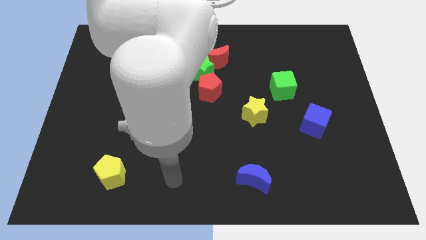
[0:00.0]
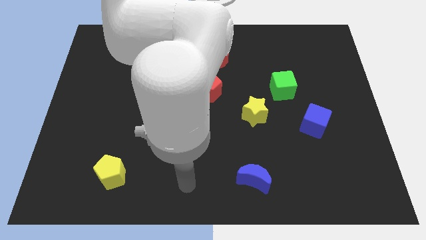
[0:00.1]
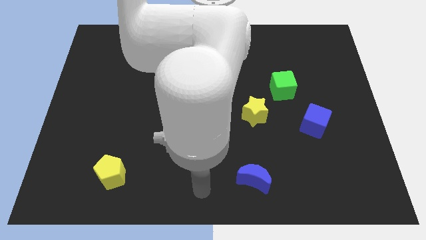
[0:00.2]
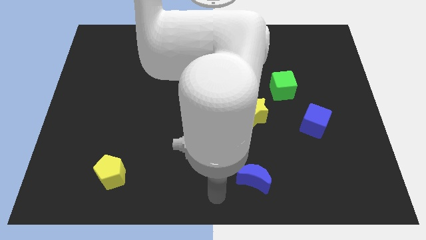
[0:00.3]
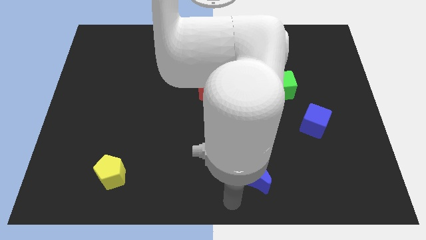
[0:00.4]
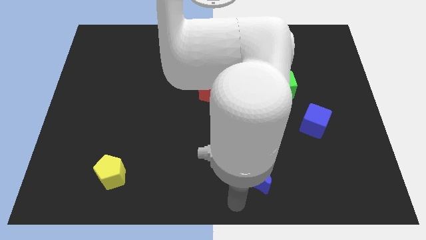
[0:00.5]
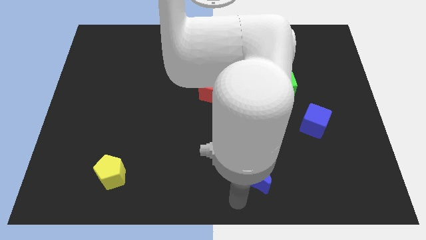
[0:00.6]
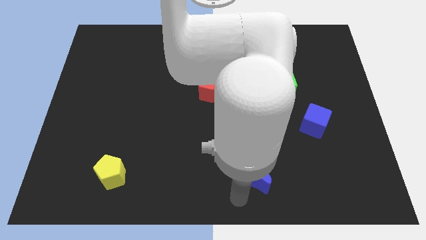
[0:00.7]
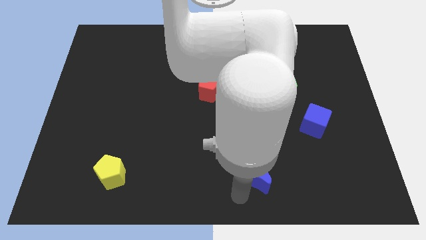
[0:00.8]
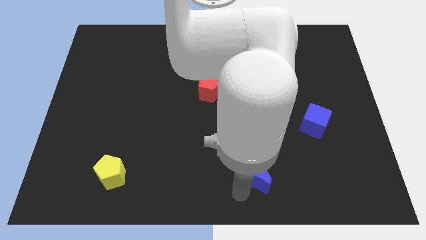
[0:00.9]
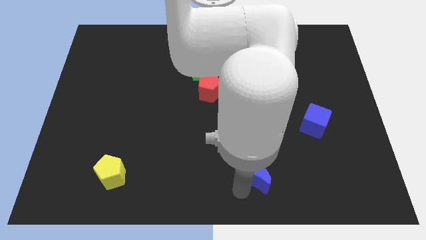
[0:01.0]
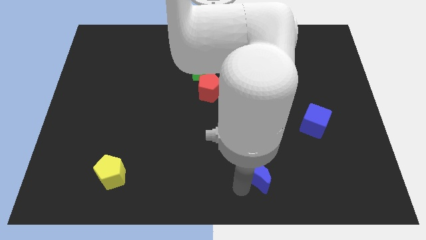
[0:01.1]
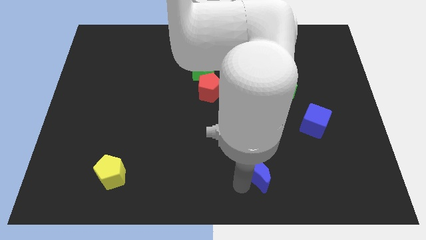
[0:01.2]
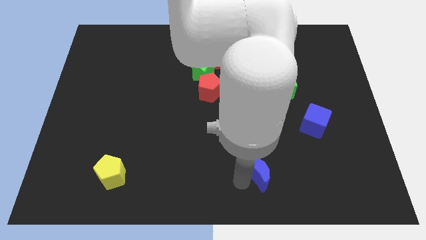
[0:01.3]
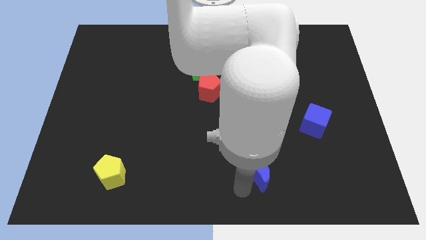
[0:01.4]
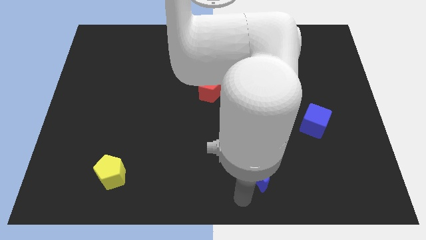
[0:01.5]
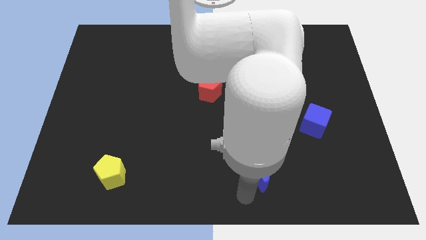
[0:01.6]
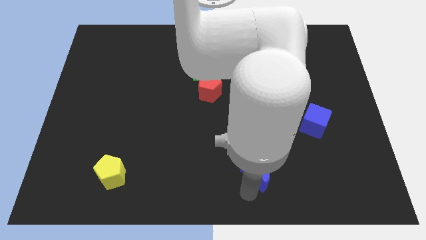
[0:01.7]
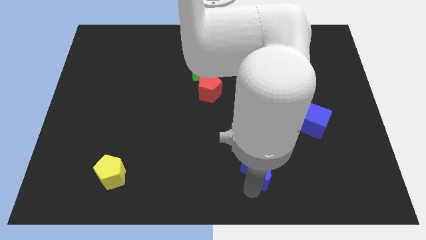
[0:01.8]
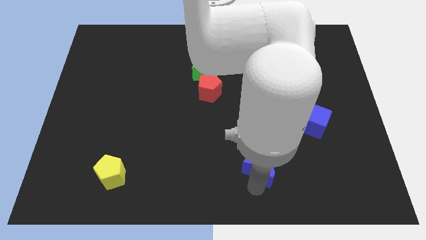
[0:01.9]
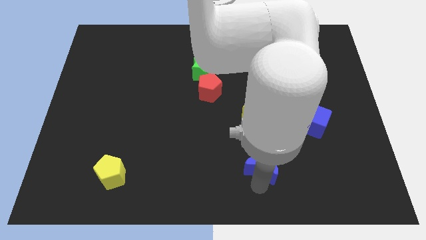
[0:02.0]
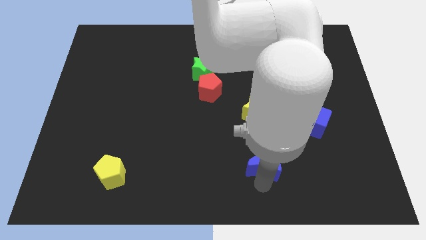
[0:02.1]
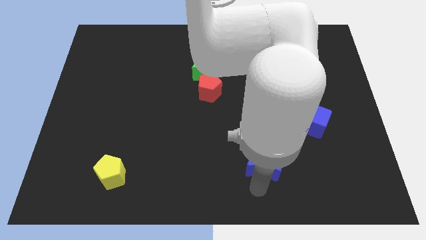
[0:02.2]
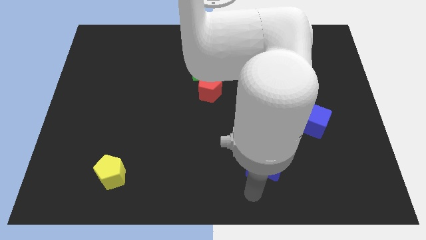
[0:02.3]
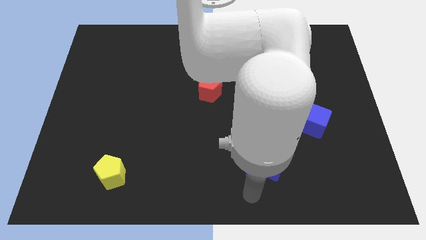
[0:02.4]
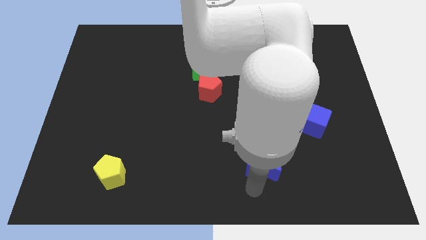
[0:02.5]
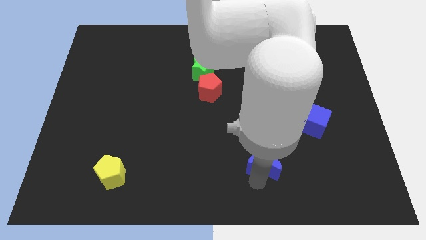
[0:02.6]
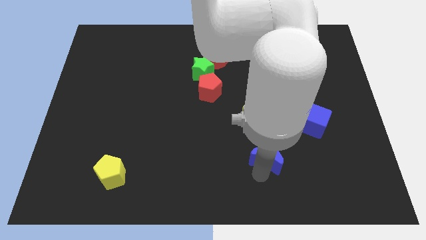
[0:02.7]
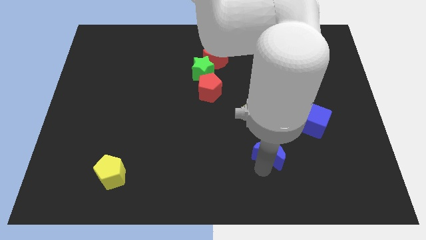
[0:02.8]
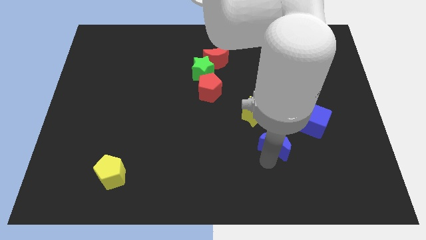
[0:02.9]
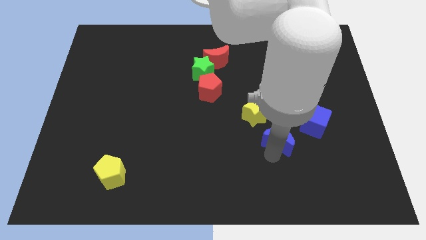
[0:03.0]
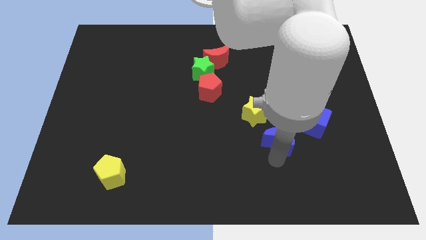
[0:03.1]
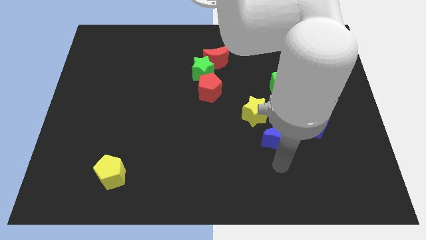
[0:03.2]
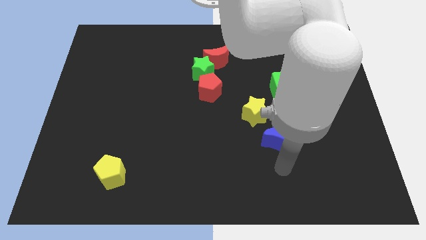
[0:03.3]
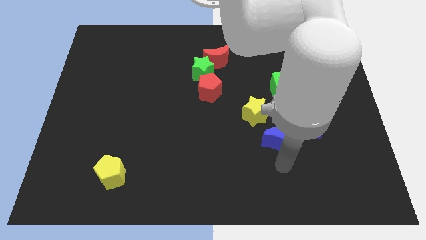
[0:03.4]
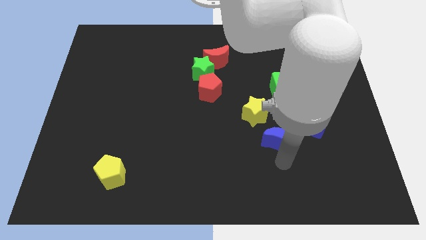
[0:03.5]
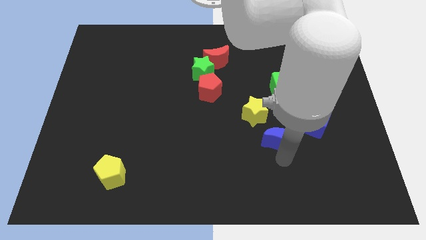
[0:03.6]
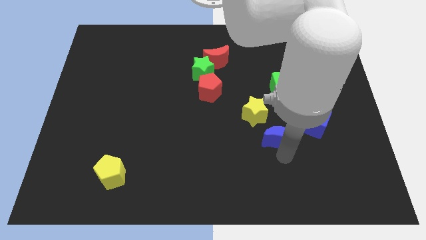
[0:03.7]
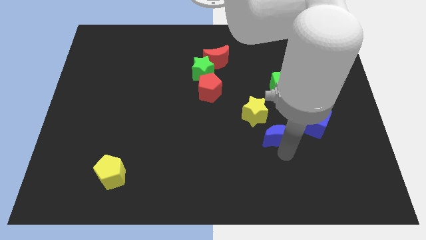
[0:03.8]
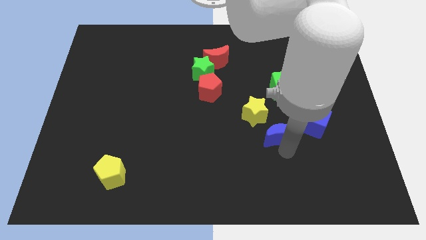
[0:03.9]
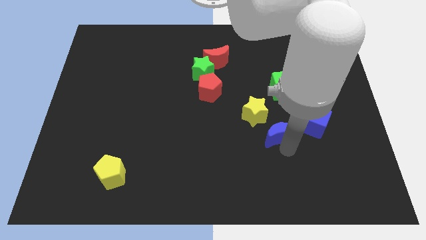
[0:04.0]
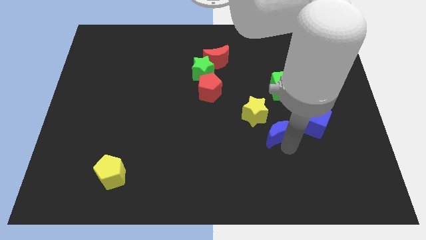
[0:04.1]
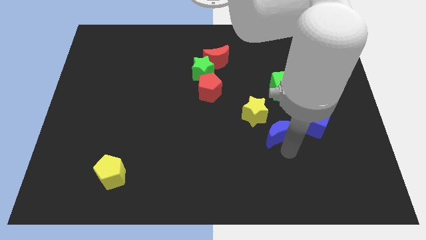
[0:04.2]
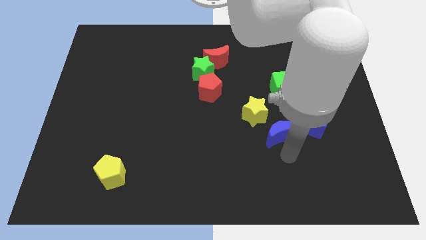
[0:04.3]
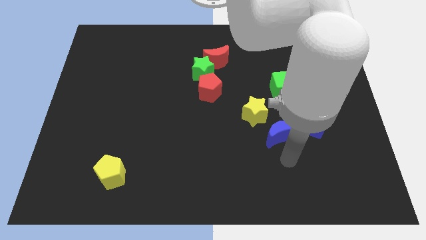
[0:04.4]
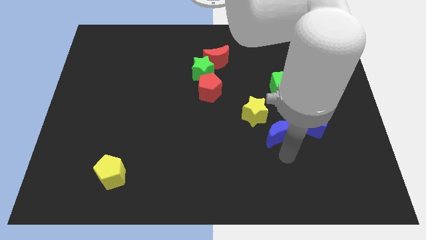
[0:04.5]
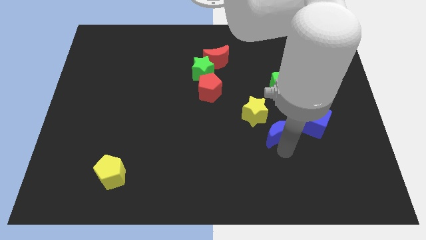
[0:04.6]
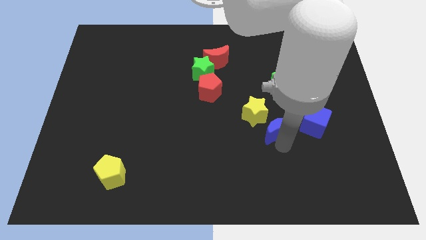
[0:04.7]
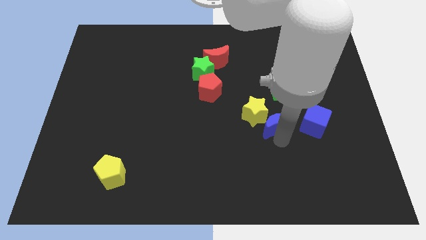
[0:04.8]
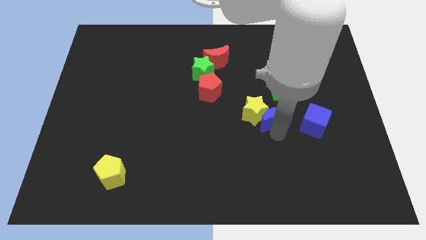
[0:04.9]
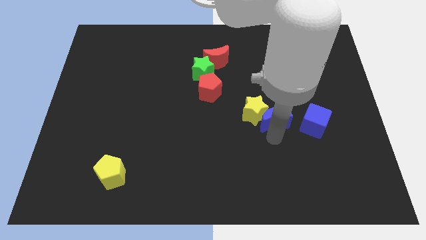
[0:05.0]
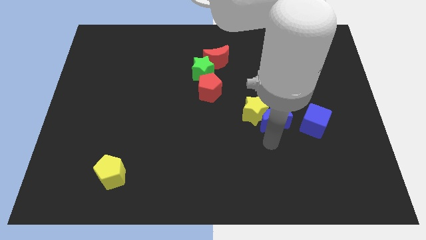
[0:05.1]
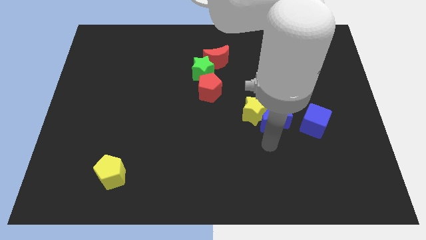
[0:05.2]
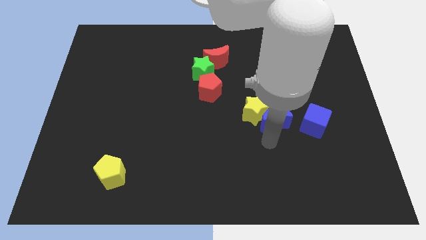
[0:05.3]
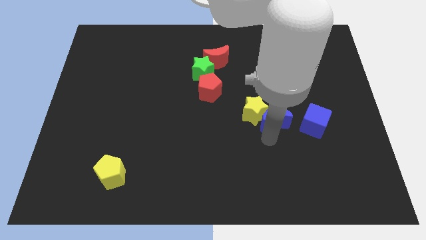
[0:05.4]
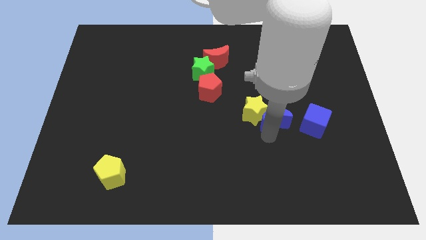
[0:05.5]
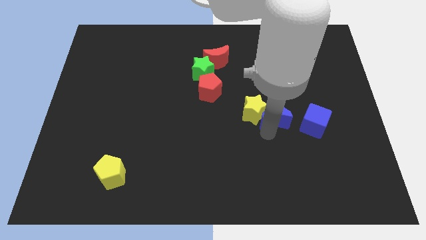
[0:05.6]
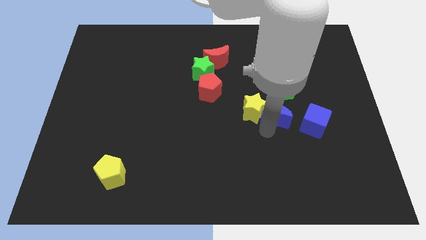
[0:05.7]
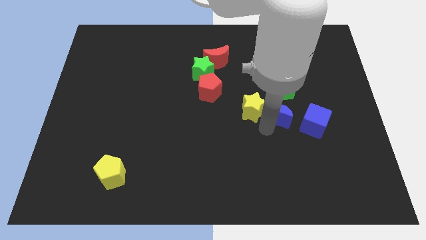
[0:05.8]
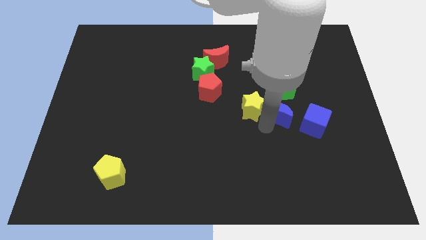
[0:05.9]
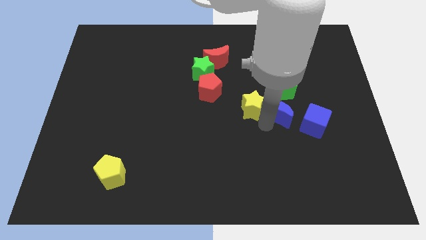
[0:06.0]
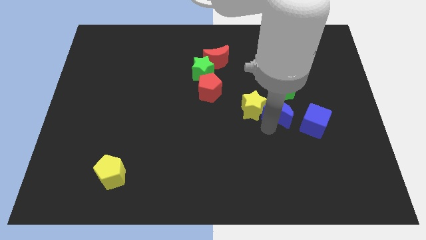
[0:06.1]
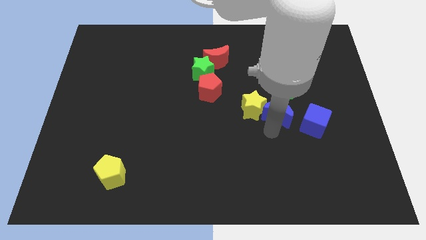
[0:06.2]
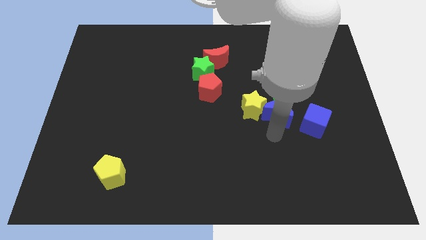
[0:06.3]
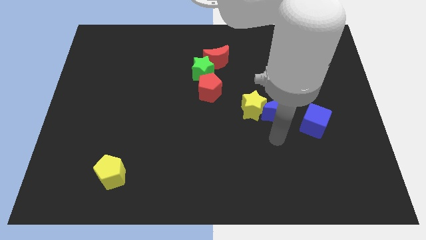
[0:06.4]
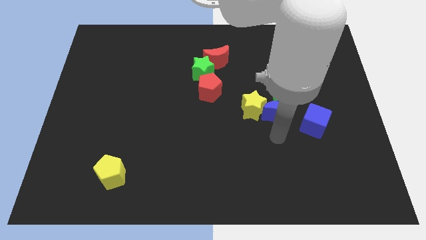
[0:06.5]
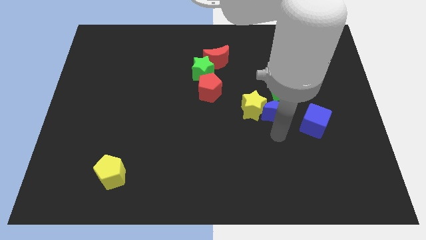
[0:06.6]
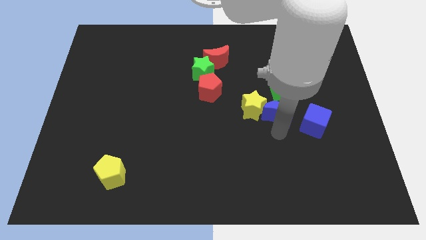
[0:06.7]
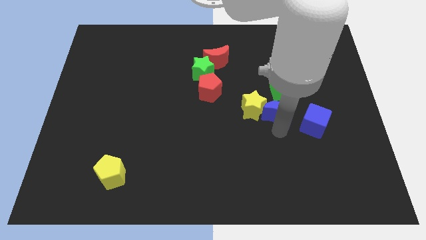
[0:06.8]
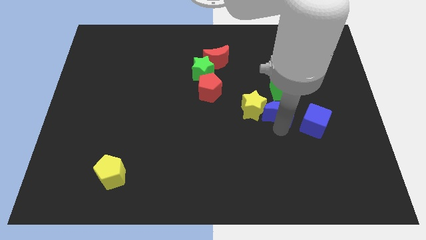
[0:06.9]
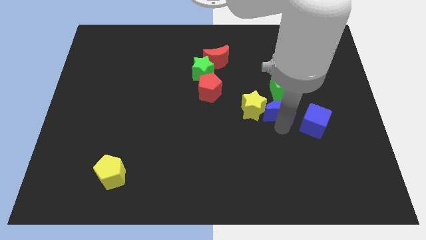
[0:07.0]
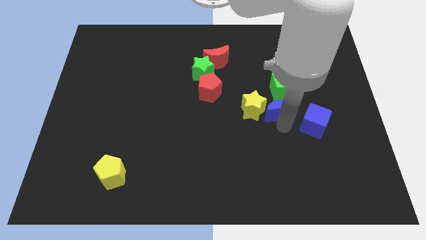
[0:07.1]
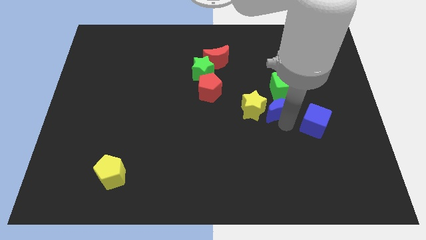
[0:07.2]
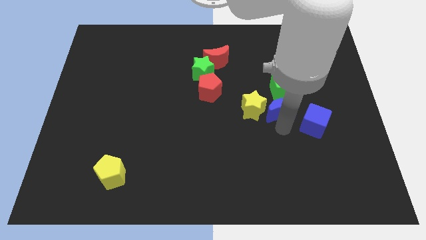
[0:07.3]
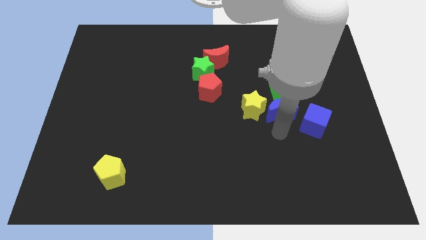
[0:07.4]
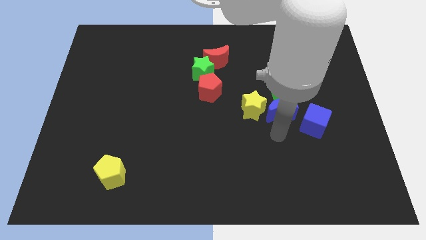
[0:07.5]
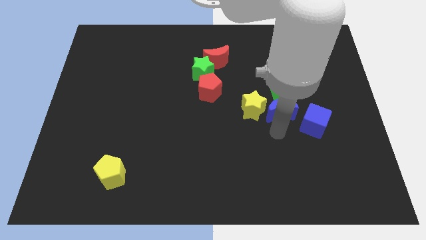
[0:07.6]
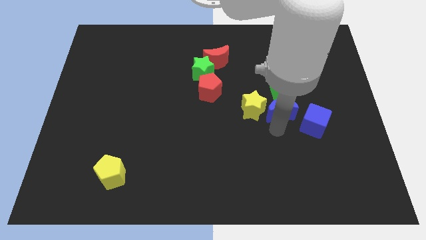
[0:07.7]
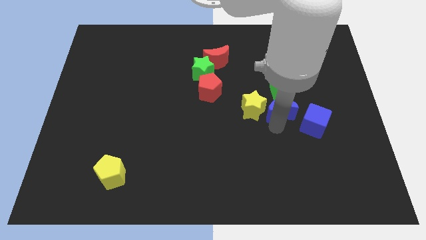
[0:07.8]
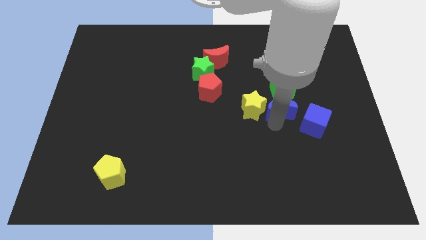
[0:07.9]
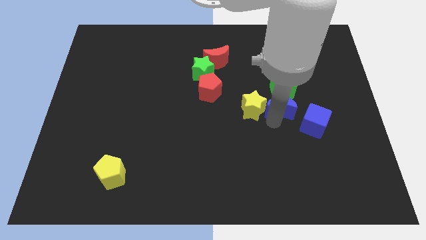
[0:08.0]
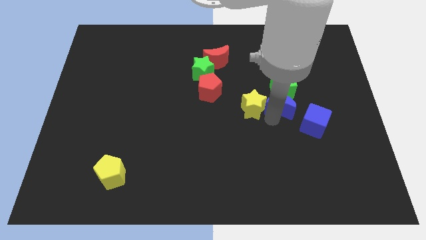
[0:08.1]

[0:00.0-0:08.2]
put the blue moon towards the green cube
